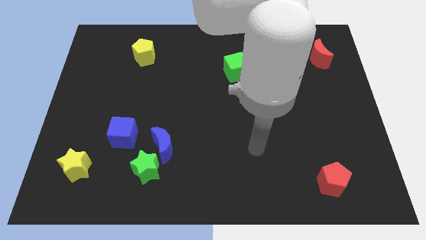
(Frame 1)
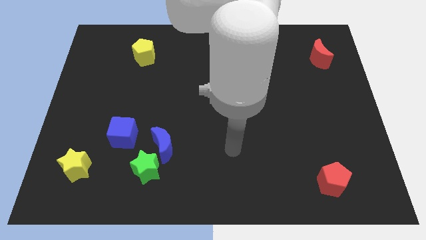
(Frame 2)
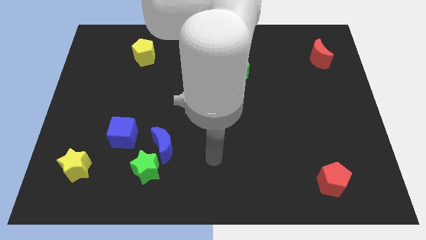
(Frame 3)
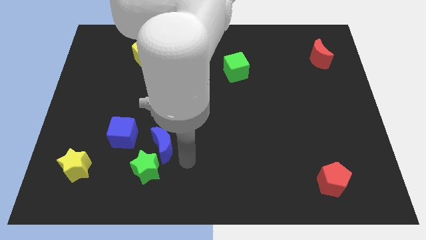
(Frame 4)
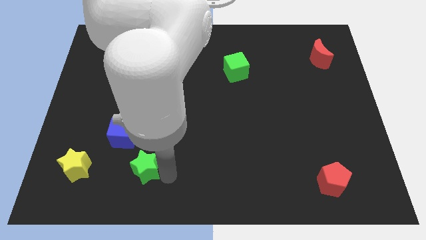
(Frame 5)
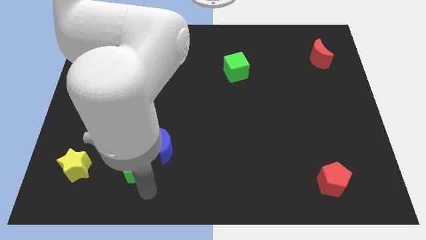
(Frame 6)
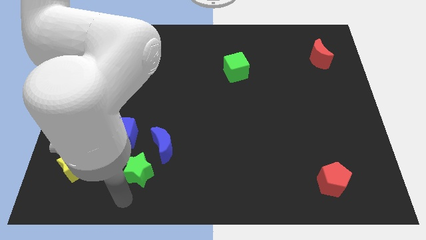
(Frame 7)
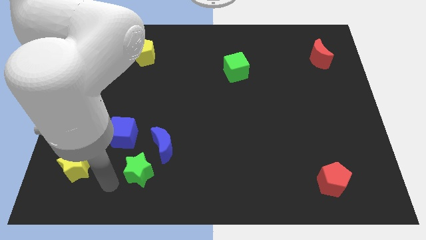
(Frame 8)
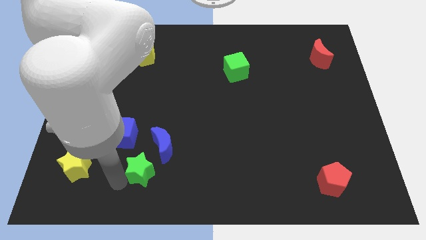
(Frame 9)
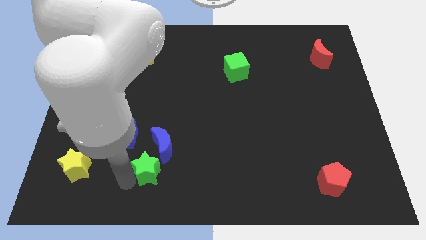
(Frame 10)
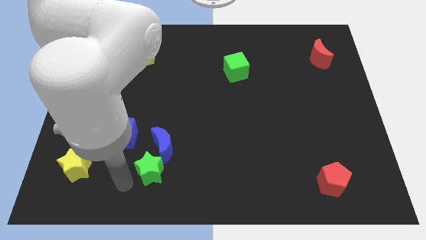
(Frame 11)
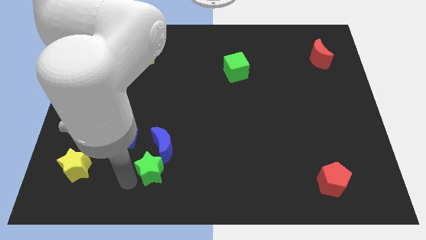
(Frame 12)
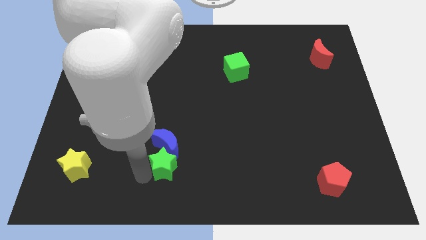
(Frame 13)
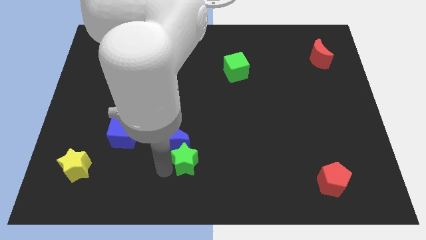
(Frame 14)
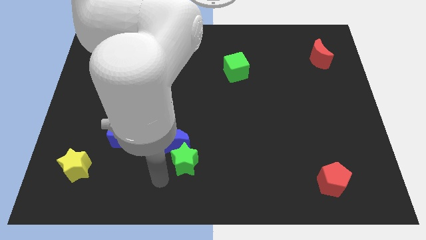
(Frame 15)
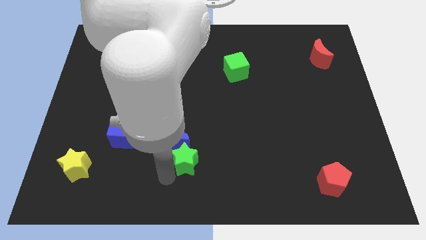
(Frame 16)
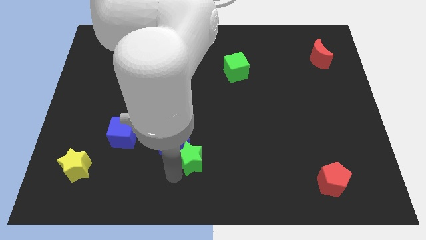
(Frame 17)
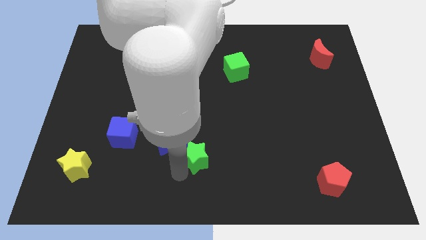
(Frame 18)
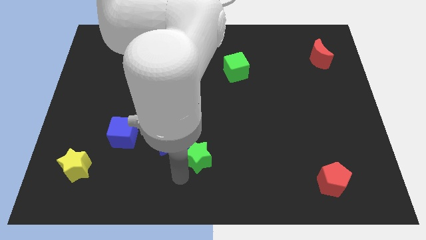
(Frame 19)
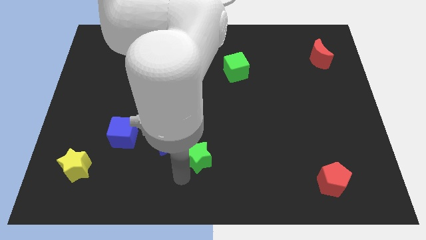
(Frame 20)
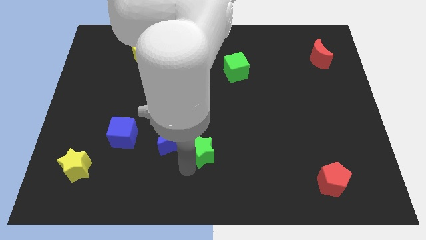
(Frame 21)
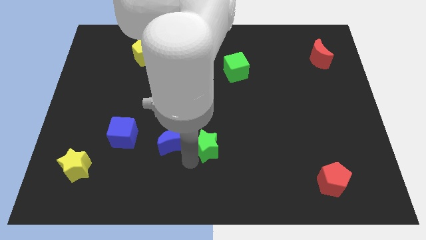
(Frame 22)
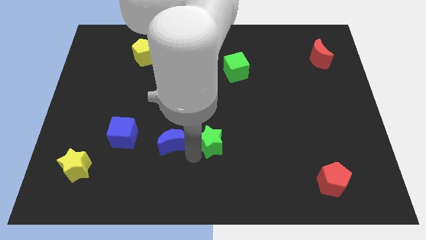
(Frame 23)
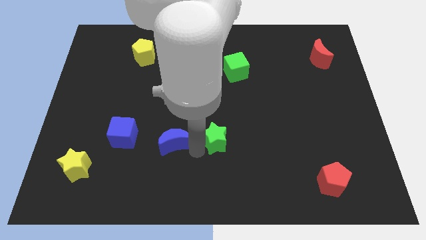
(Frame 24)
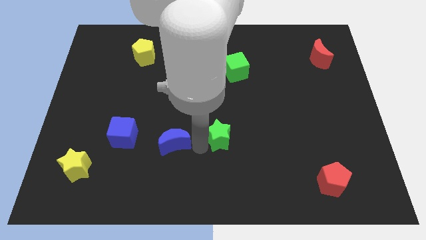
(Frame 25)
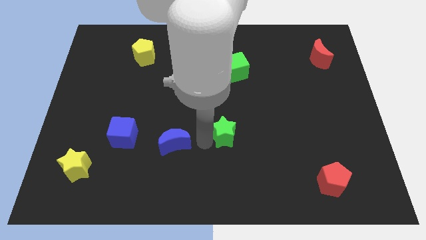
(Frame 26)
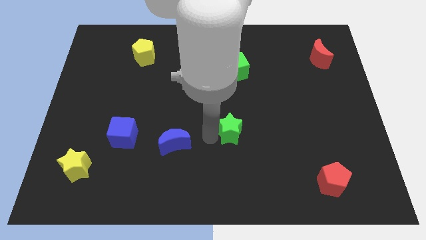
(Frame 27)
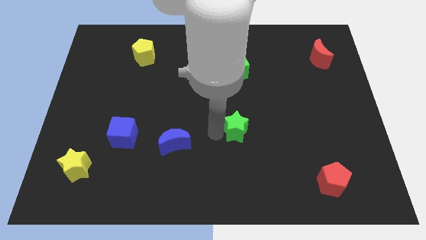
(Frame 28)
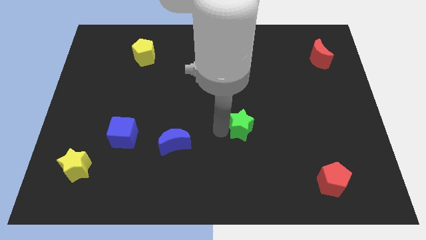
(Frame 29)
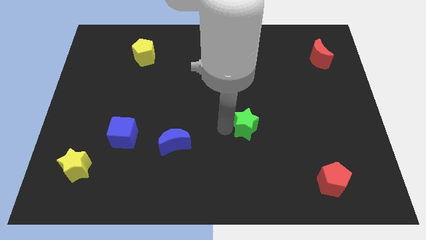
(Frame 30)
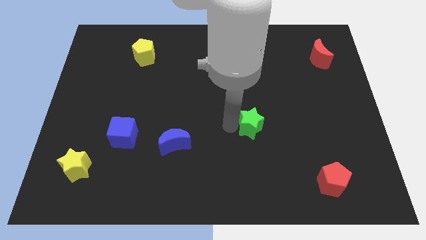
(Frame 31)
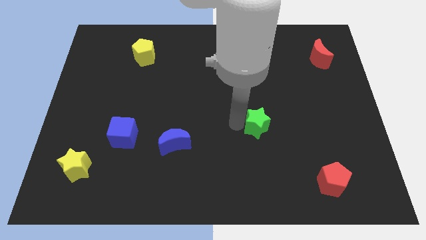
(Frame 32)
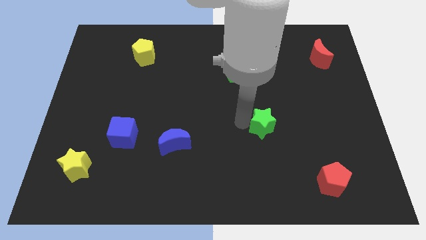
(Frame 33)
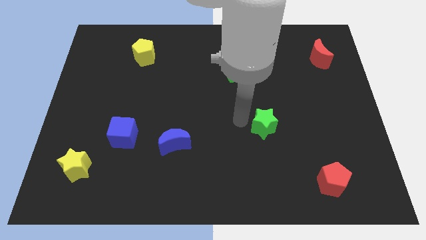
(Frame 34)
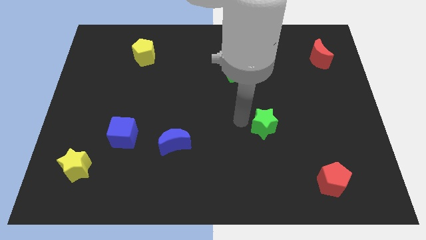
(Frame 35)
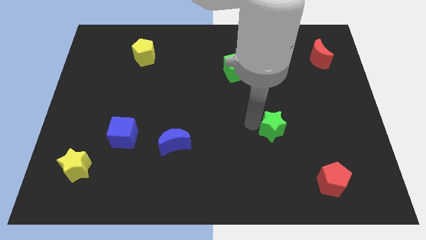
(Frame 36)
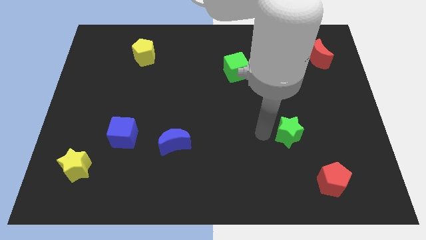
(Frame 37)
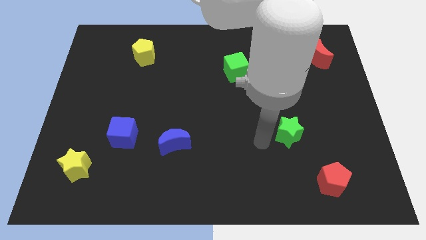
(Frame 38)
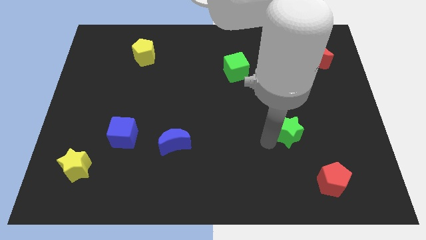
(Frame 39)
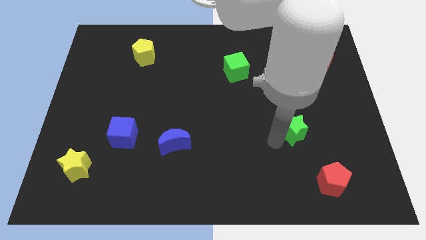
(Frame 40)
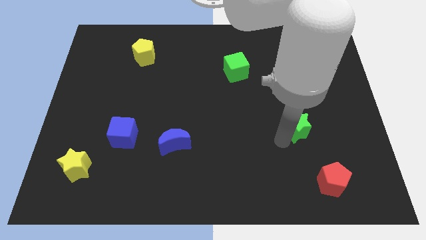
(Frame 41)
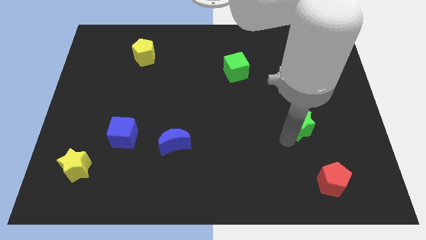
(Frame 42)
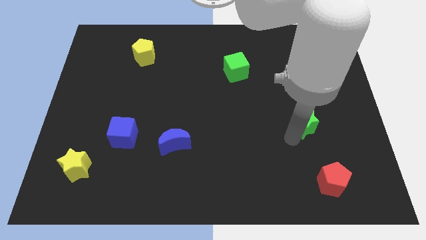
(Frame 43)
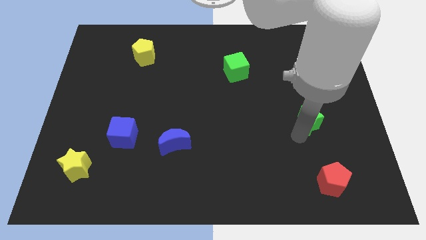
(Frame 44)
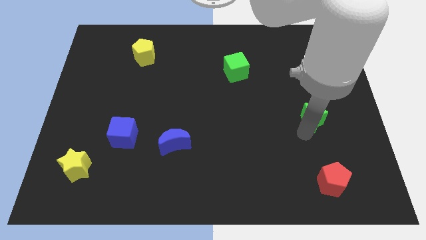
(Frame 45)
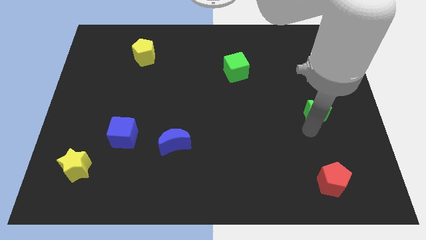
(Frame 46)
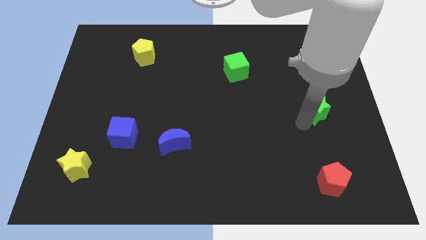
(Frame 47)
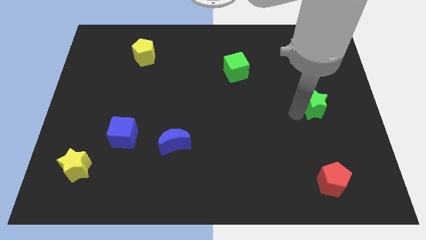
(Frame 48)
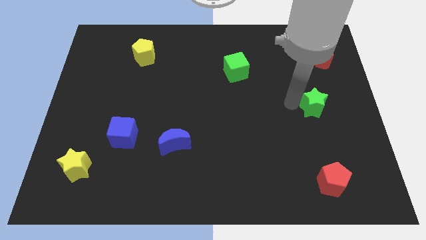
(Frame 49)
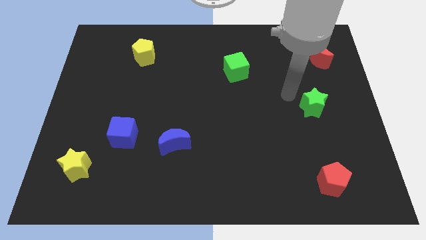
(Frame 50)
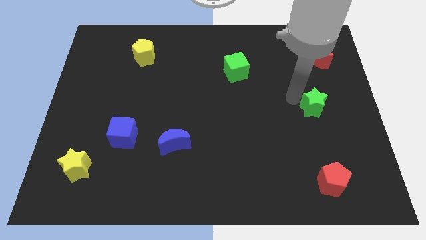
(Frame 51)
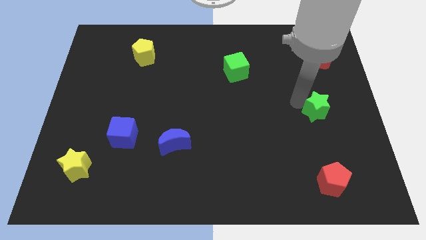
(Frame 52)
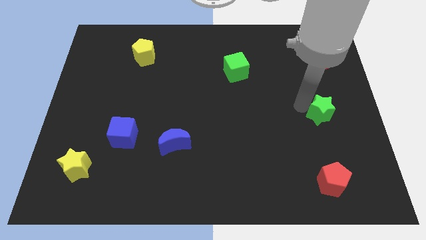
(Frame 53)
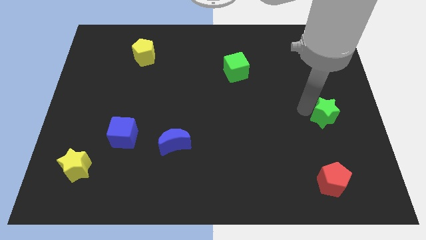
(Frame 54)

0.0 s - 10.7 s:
move the green star to the right side

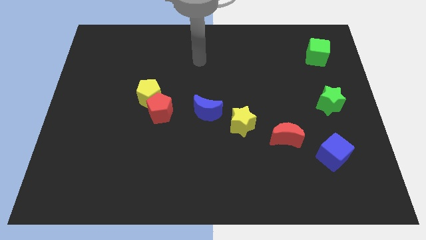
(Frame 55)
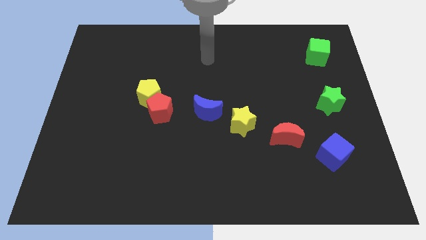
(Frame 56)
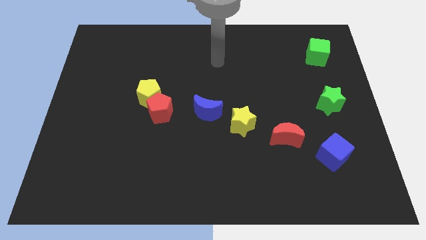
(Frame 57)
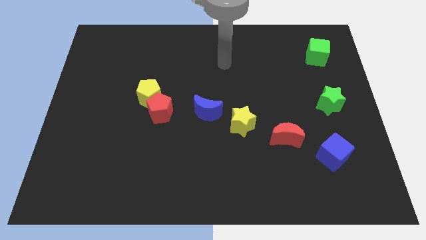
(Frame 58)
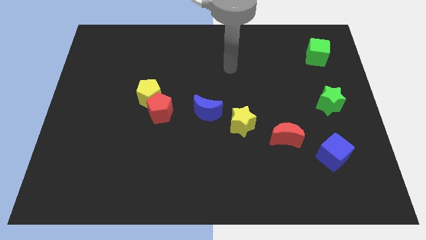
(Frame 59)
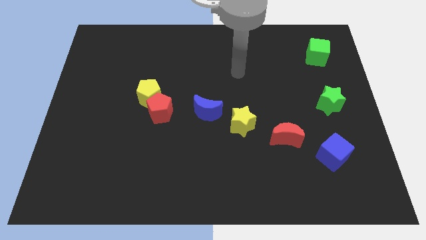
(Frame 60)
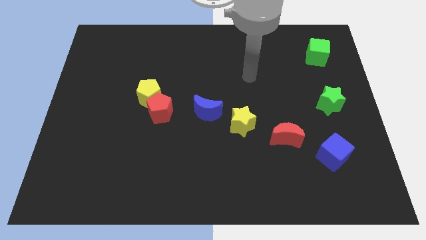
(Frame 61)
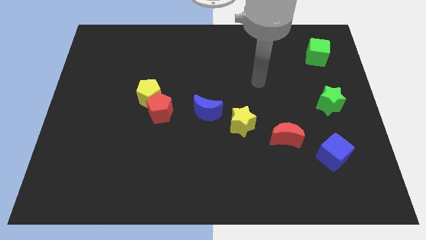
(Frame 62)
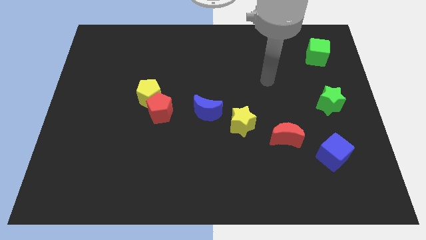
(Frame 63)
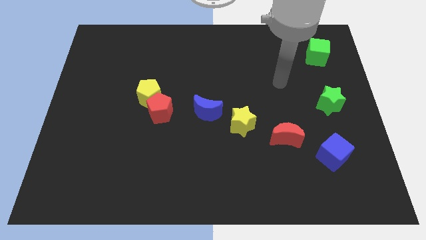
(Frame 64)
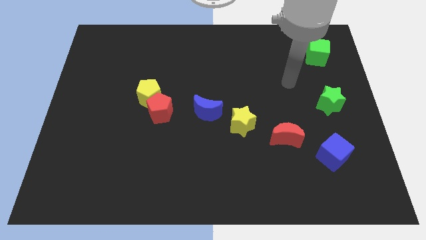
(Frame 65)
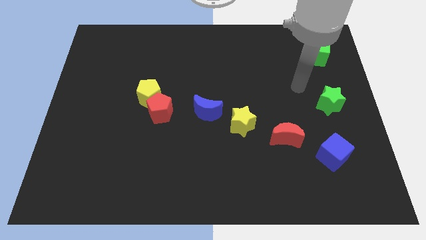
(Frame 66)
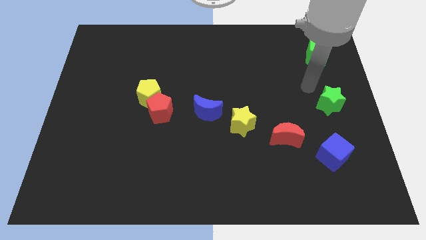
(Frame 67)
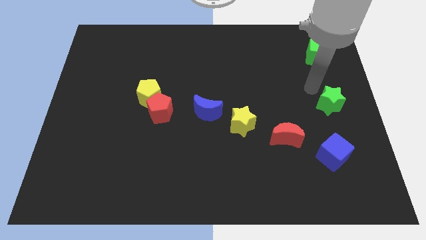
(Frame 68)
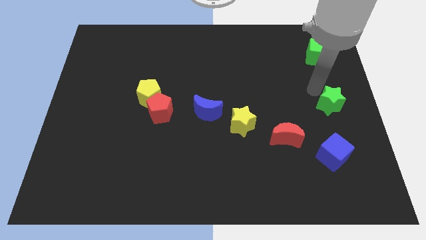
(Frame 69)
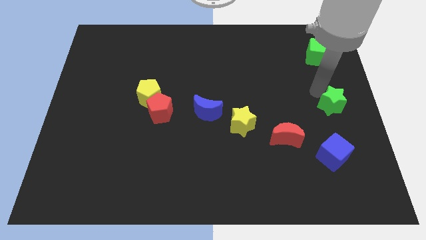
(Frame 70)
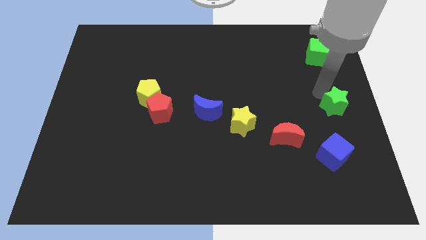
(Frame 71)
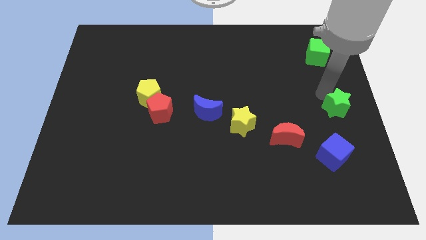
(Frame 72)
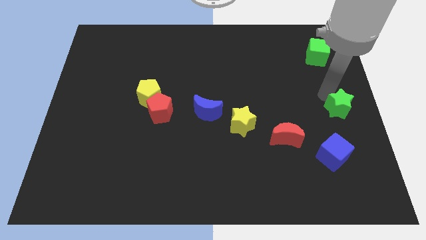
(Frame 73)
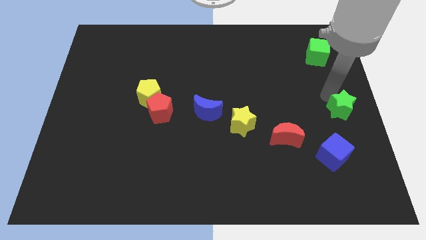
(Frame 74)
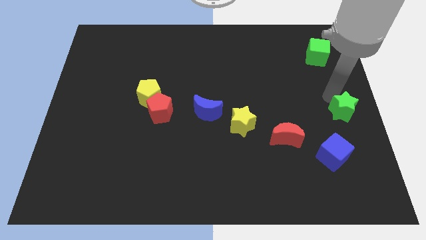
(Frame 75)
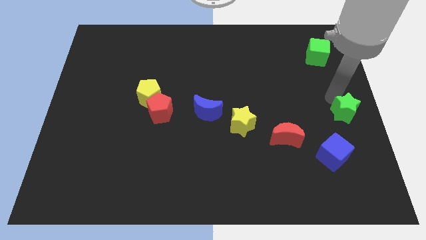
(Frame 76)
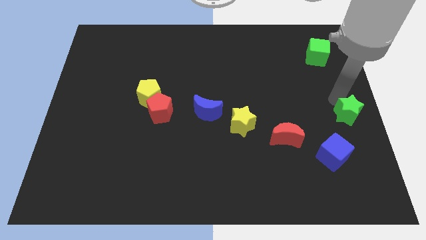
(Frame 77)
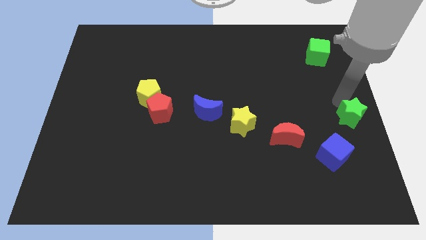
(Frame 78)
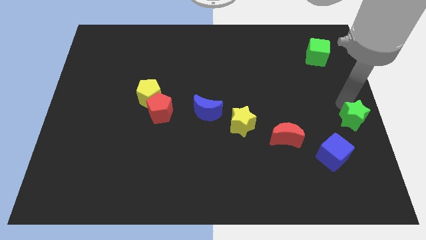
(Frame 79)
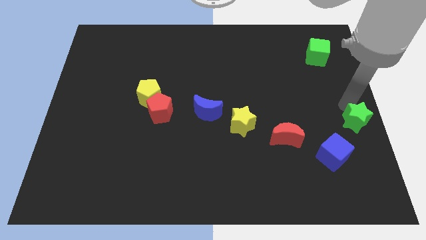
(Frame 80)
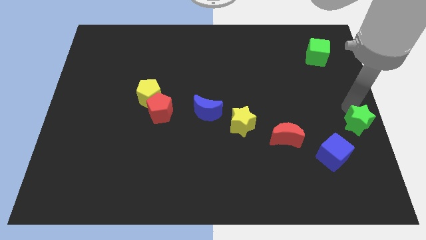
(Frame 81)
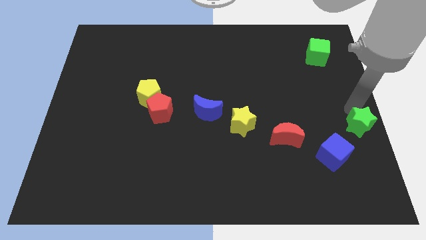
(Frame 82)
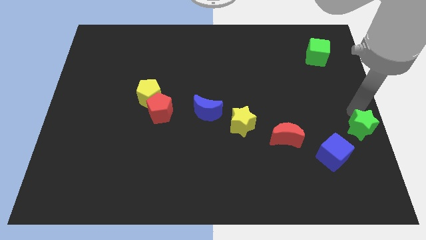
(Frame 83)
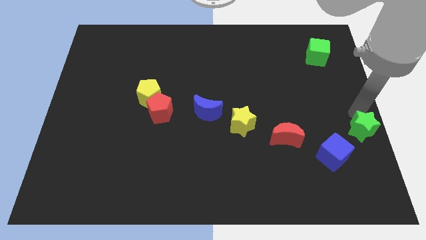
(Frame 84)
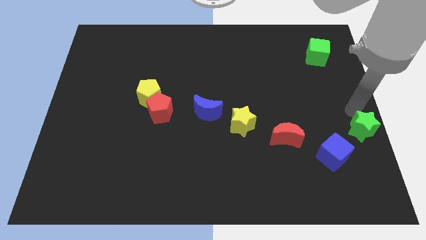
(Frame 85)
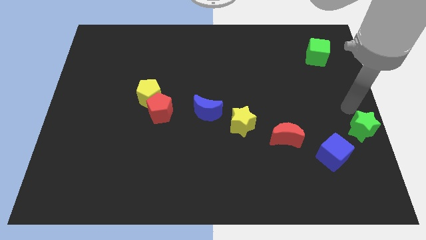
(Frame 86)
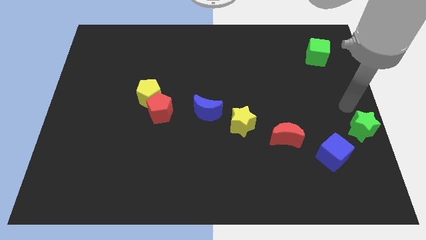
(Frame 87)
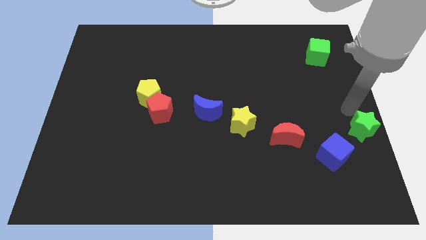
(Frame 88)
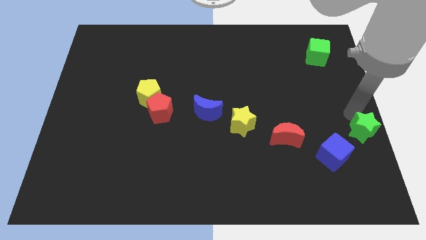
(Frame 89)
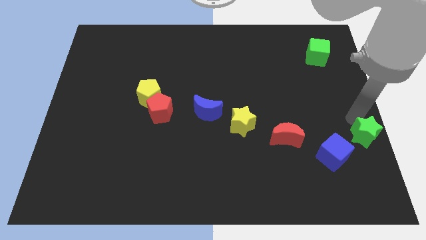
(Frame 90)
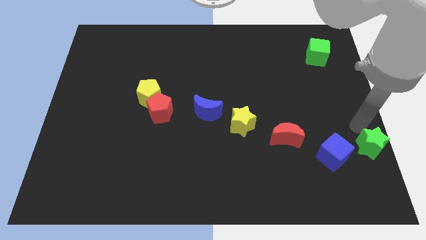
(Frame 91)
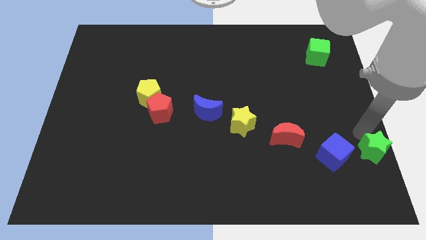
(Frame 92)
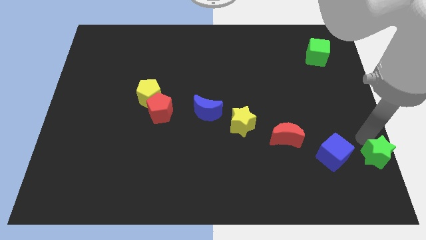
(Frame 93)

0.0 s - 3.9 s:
move the green star to the bottom right of the board
